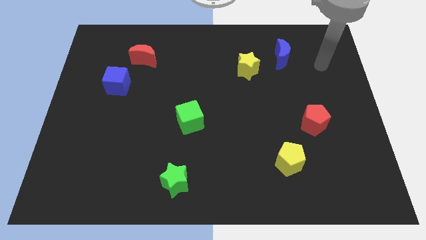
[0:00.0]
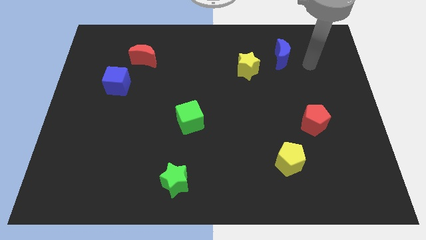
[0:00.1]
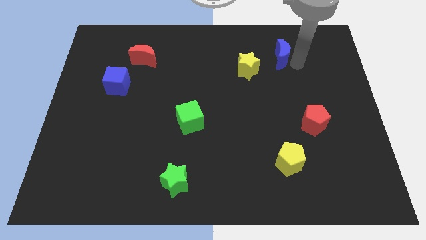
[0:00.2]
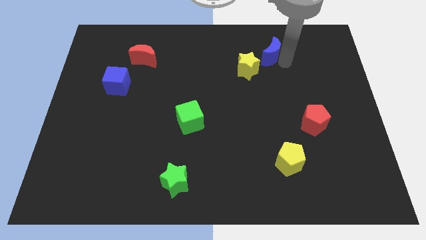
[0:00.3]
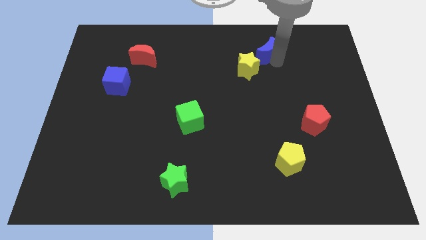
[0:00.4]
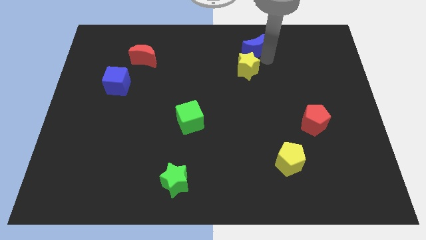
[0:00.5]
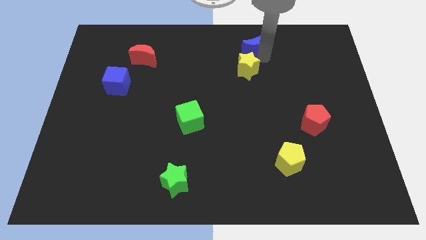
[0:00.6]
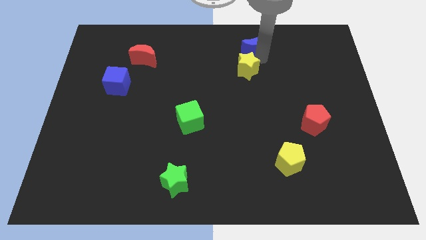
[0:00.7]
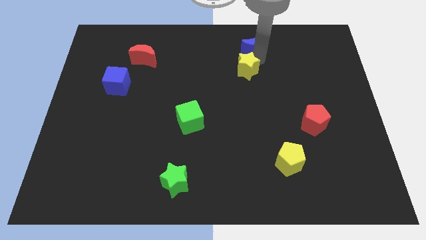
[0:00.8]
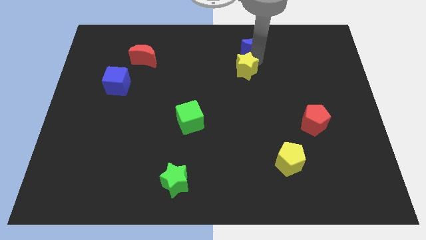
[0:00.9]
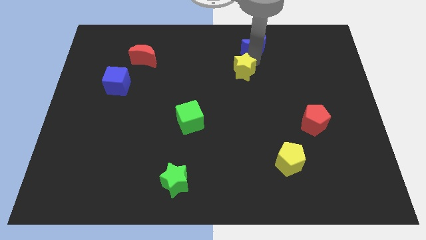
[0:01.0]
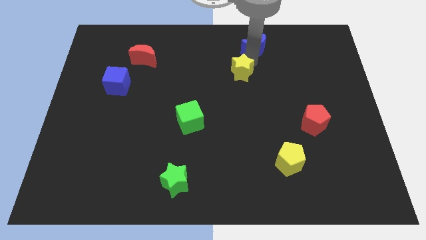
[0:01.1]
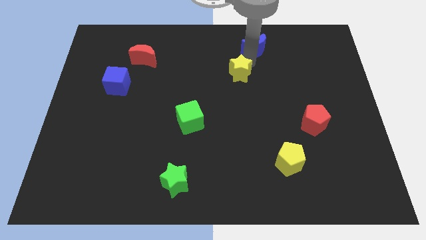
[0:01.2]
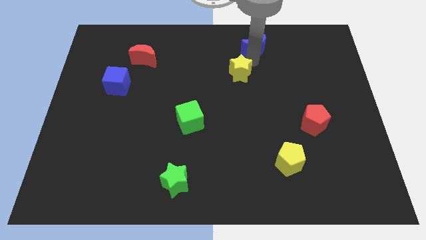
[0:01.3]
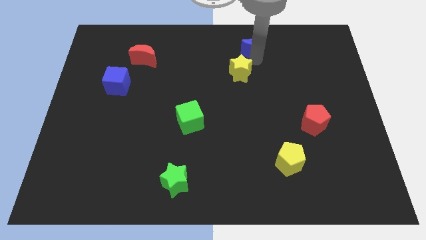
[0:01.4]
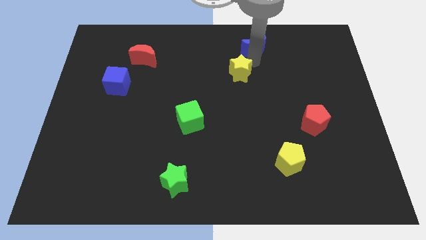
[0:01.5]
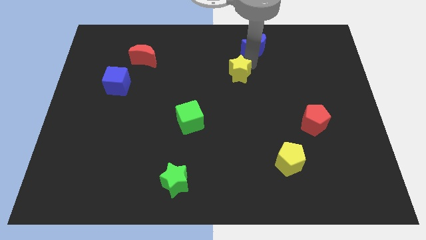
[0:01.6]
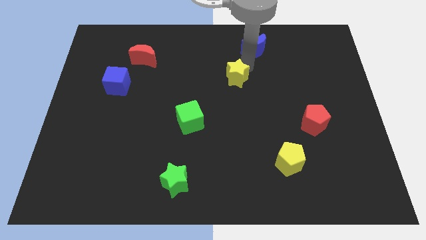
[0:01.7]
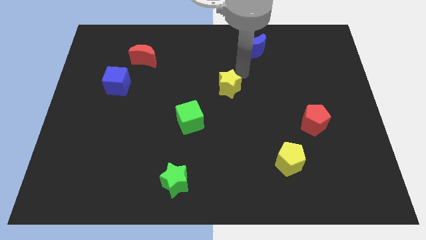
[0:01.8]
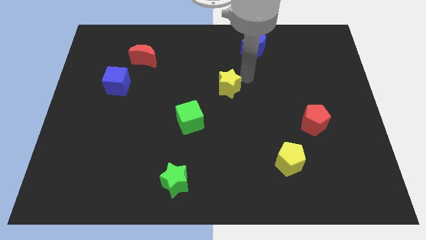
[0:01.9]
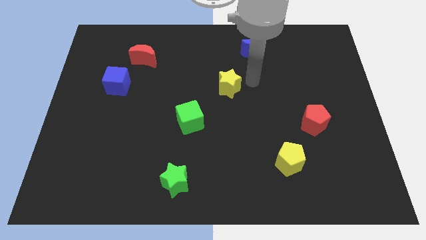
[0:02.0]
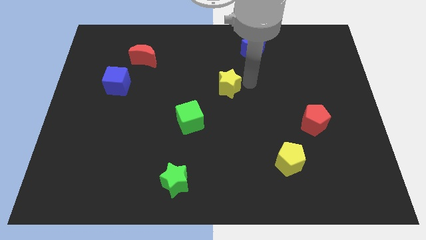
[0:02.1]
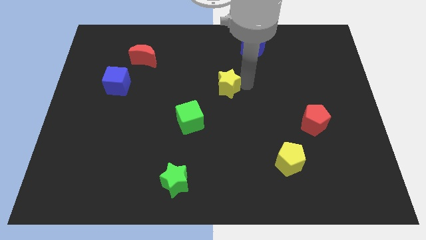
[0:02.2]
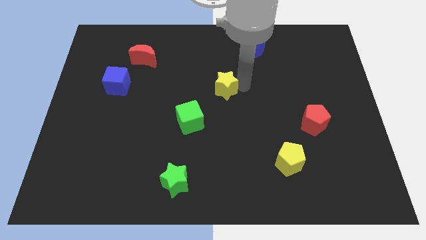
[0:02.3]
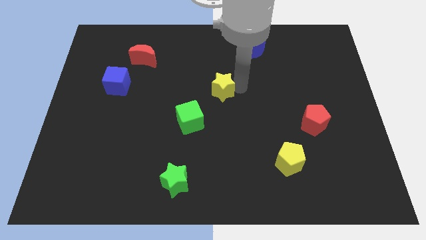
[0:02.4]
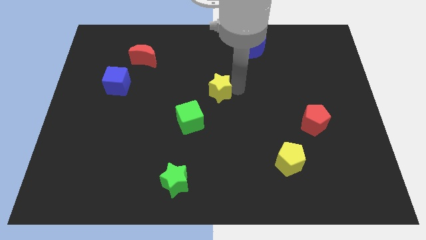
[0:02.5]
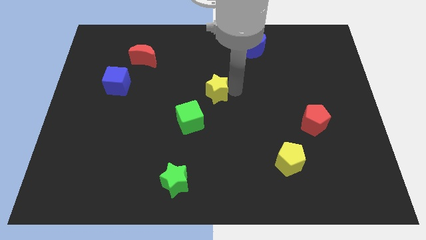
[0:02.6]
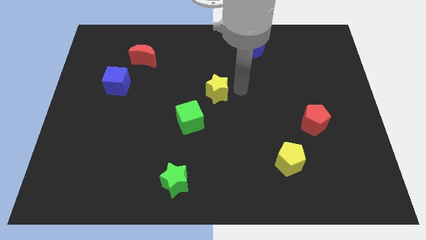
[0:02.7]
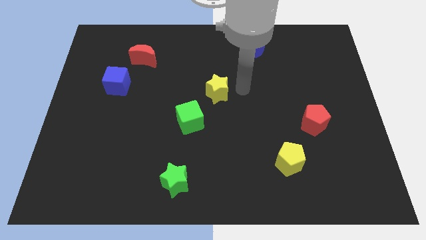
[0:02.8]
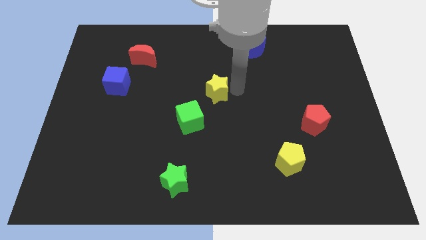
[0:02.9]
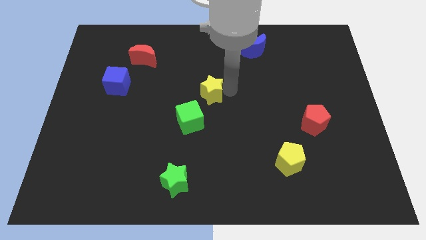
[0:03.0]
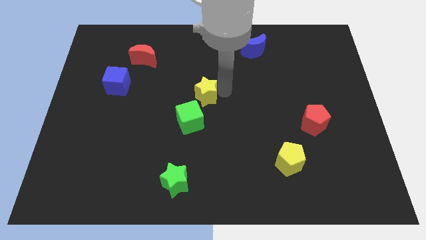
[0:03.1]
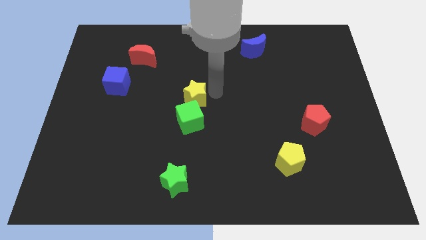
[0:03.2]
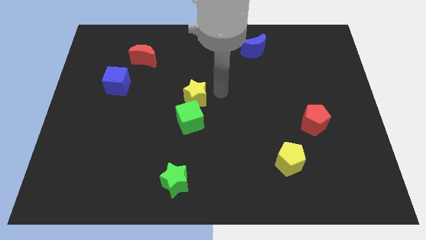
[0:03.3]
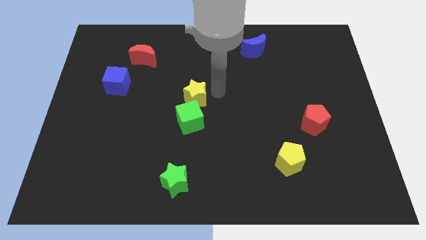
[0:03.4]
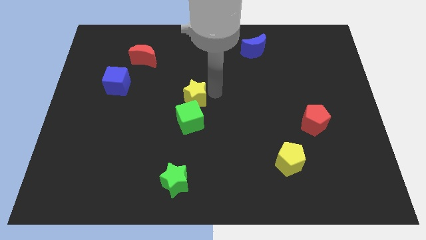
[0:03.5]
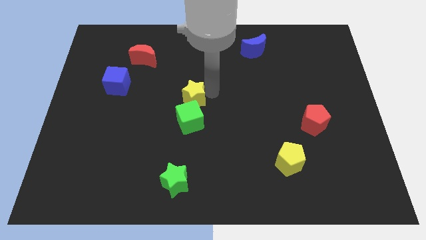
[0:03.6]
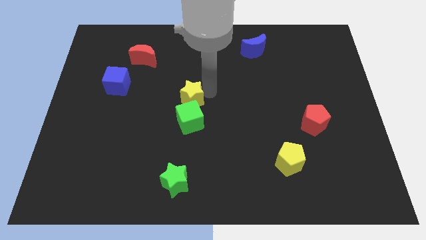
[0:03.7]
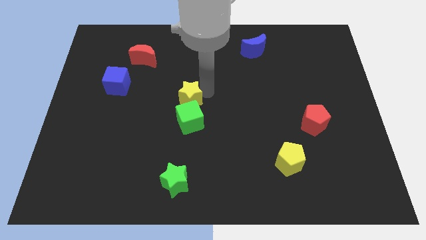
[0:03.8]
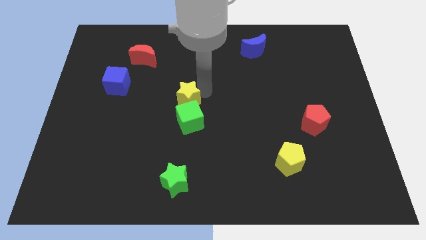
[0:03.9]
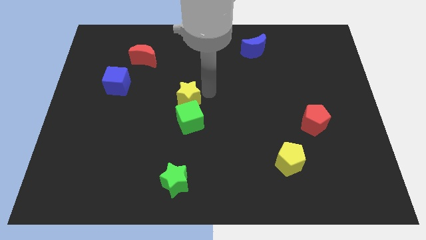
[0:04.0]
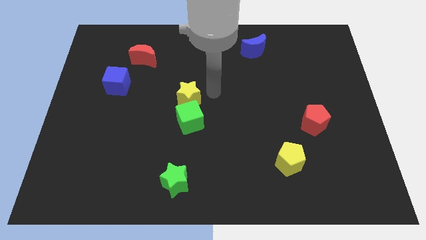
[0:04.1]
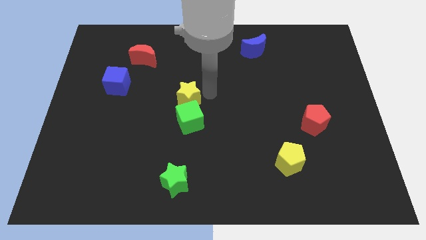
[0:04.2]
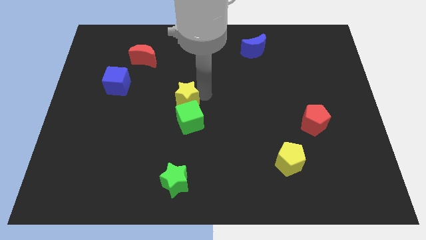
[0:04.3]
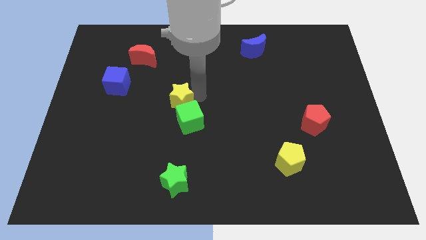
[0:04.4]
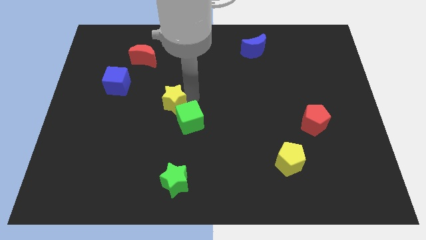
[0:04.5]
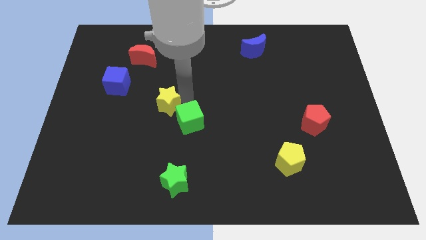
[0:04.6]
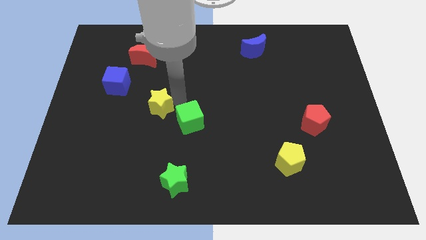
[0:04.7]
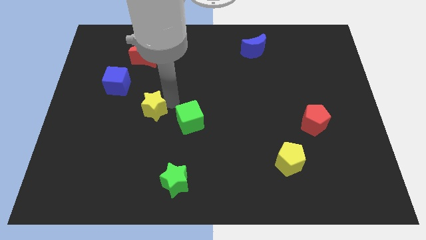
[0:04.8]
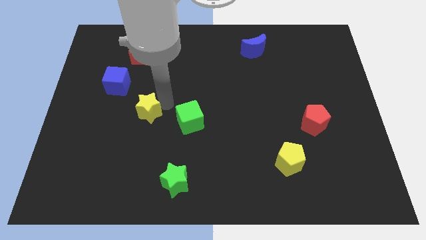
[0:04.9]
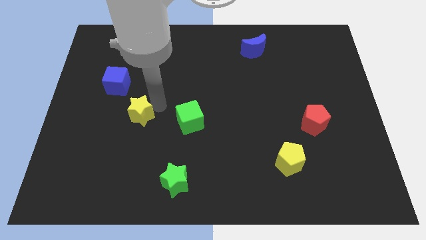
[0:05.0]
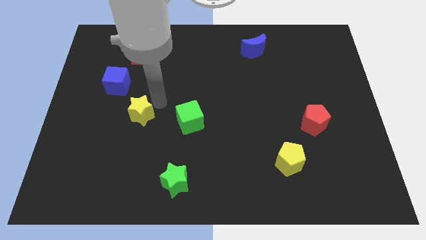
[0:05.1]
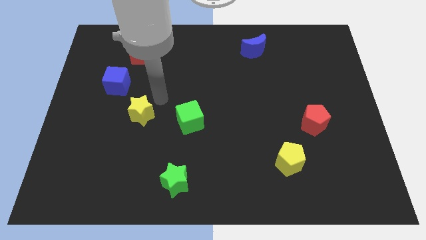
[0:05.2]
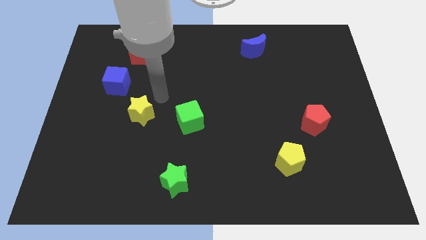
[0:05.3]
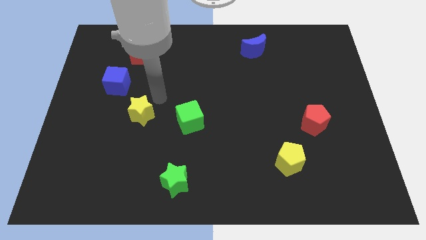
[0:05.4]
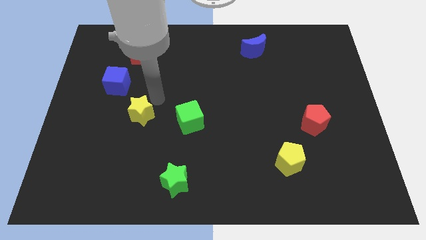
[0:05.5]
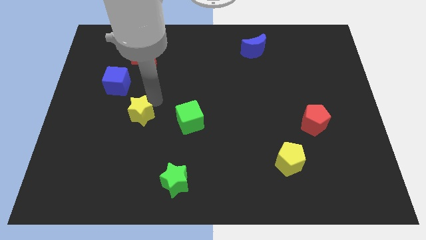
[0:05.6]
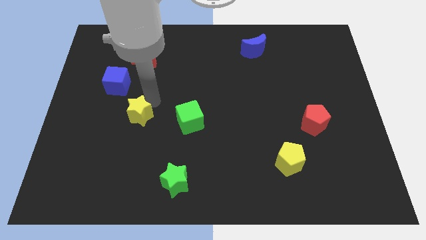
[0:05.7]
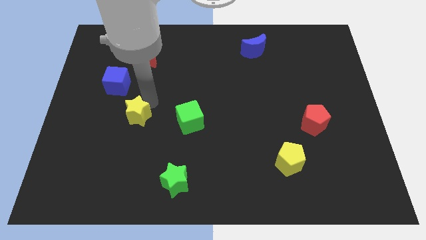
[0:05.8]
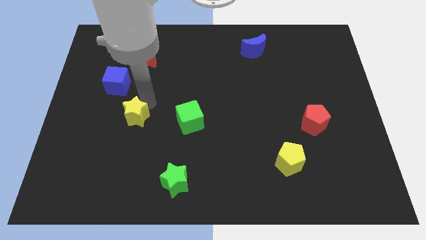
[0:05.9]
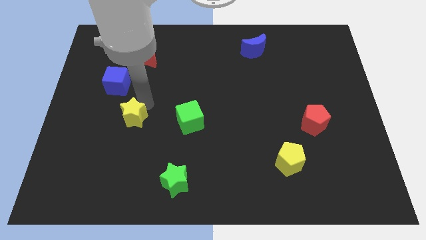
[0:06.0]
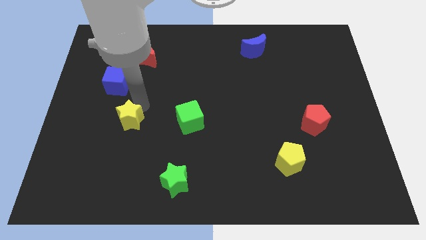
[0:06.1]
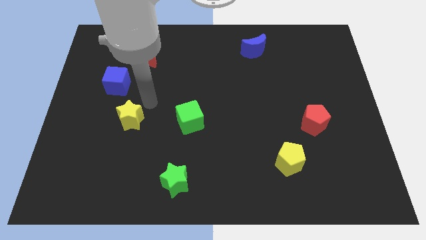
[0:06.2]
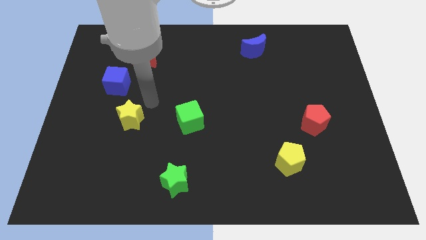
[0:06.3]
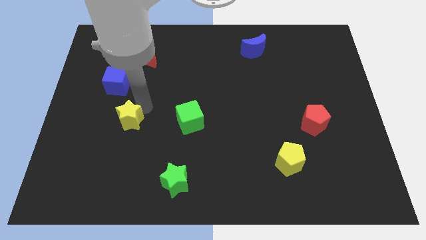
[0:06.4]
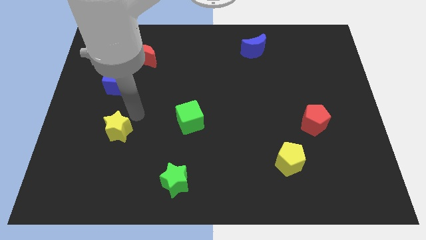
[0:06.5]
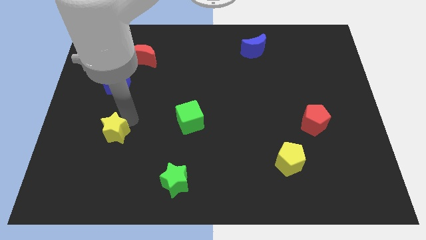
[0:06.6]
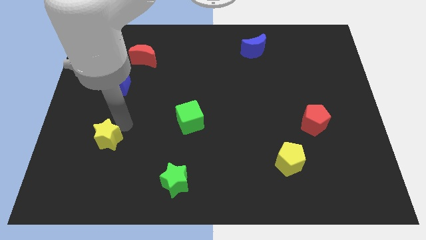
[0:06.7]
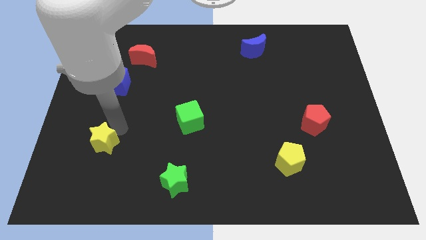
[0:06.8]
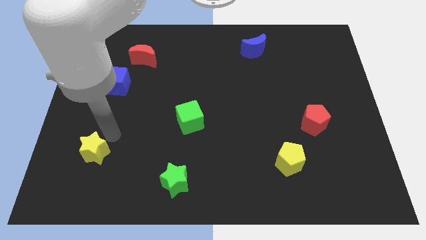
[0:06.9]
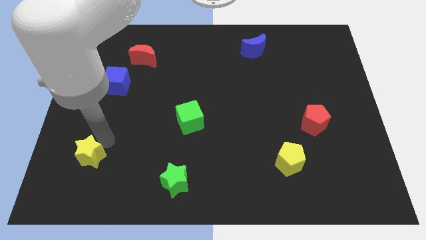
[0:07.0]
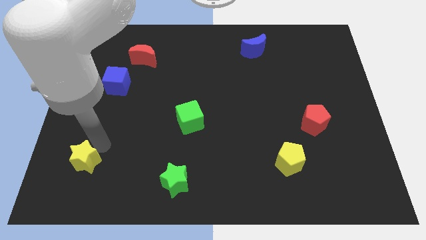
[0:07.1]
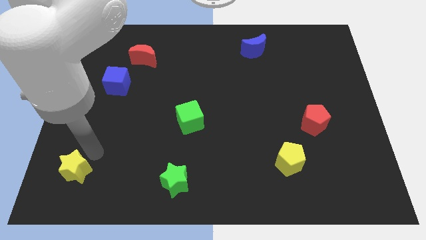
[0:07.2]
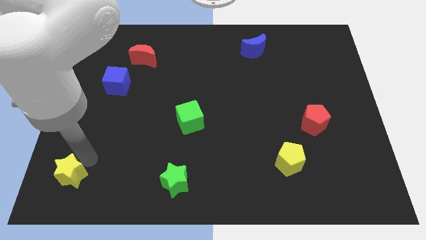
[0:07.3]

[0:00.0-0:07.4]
move the yellow star to the lower left corner

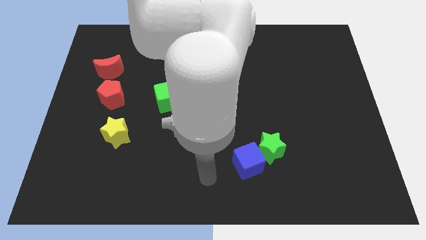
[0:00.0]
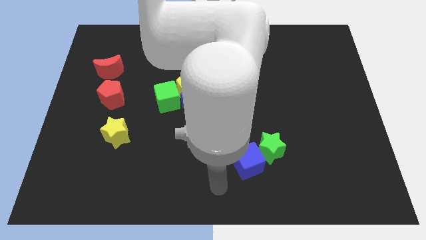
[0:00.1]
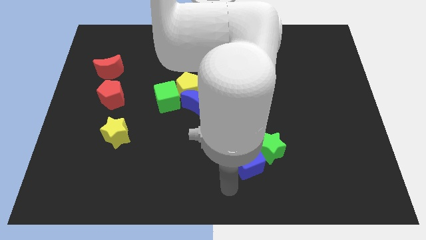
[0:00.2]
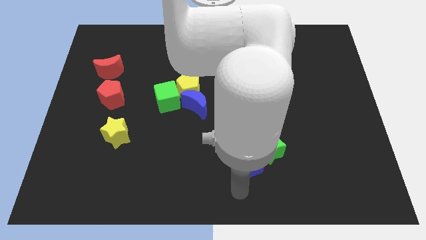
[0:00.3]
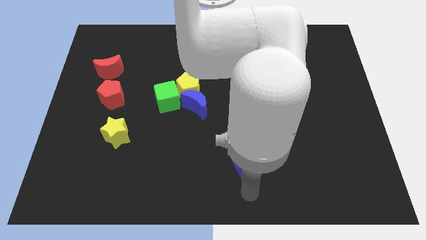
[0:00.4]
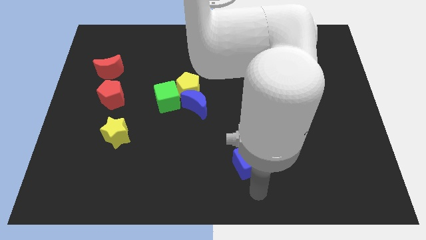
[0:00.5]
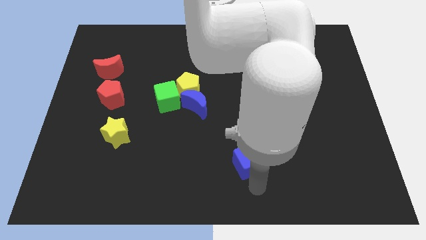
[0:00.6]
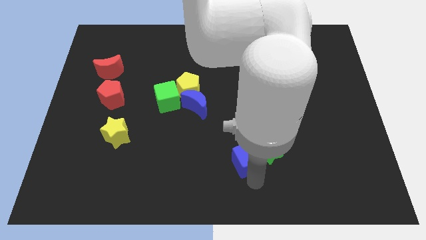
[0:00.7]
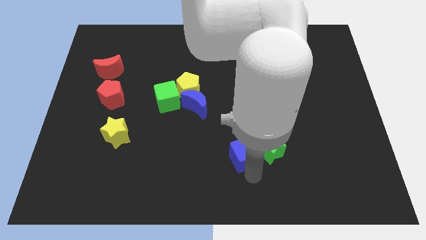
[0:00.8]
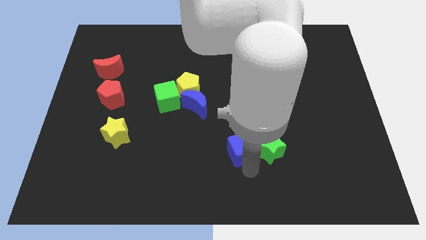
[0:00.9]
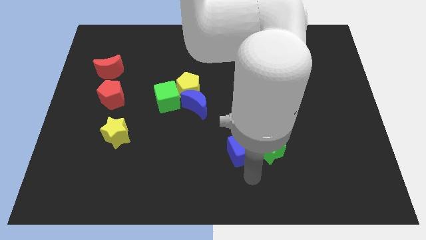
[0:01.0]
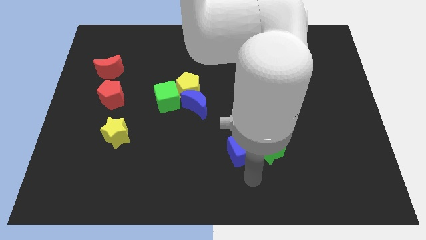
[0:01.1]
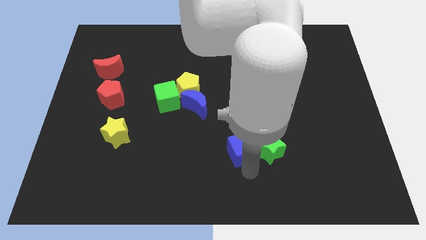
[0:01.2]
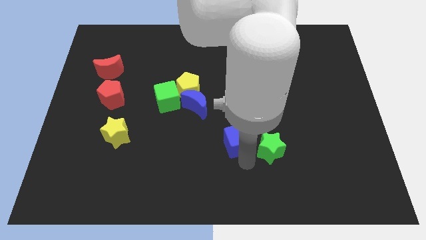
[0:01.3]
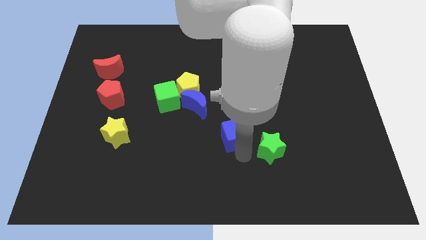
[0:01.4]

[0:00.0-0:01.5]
push the blue cube to the center
